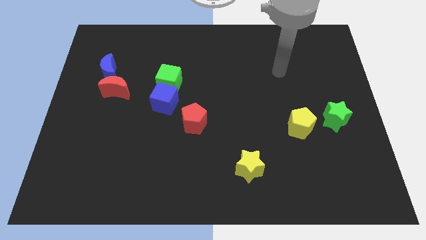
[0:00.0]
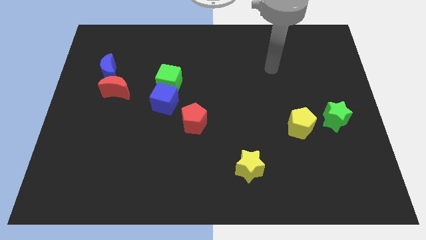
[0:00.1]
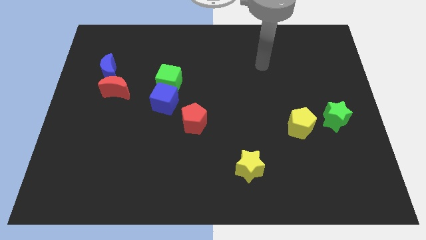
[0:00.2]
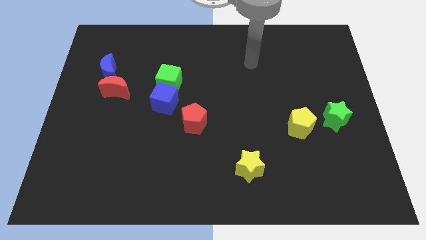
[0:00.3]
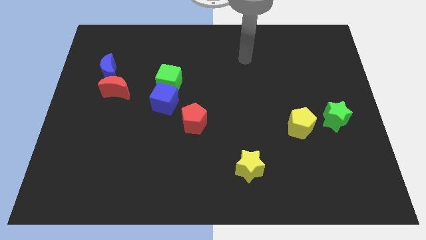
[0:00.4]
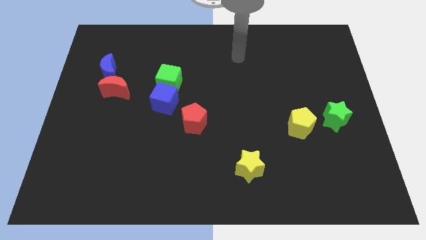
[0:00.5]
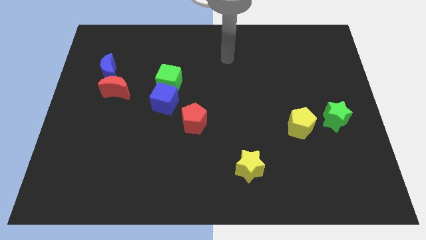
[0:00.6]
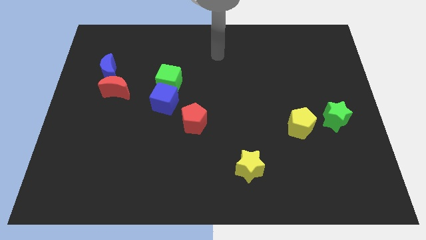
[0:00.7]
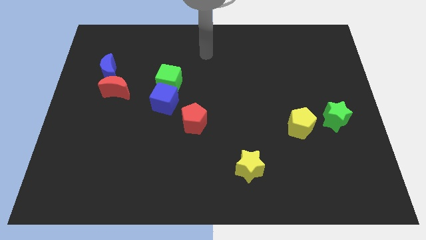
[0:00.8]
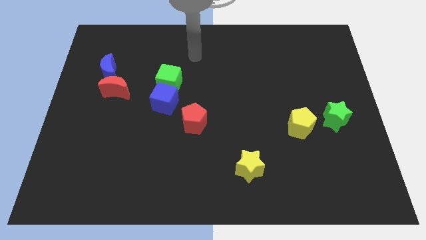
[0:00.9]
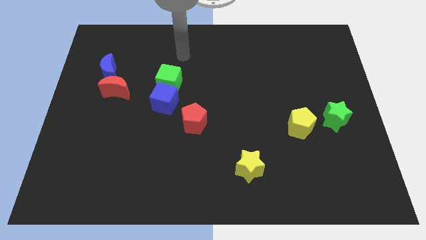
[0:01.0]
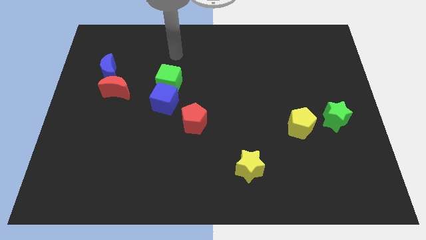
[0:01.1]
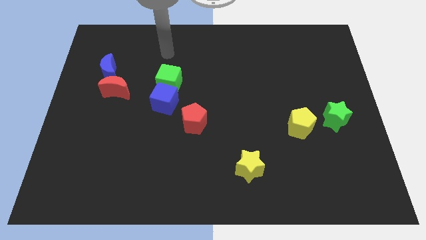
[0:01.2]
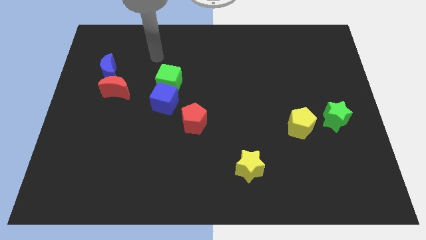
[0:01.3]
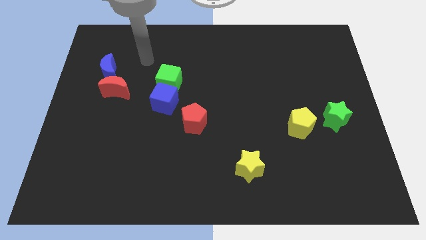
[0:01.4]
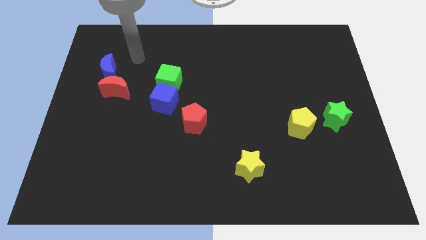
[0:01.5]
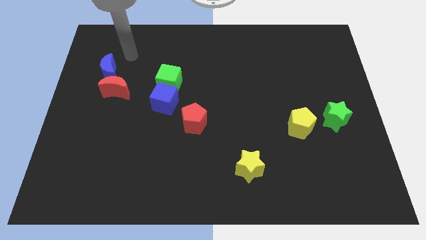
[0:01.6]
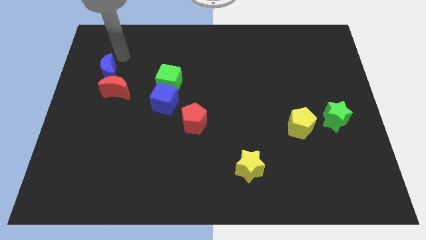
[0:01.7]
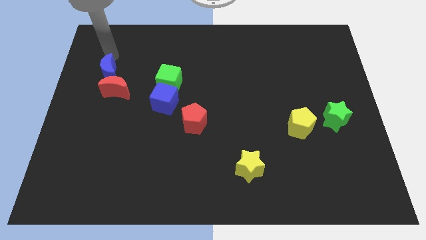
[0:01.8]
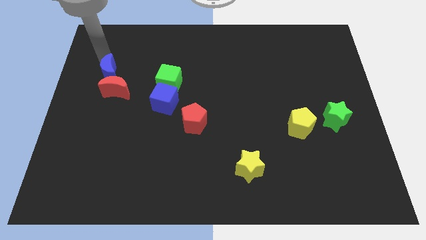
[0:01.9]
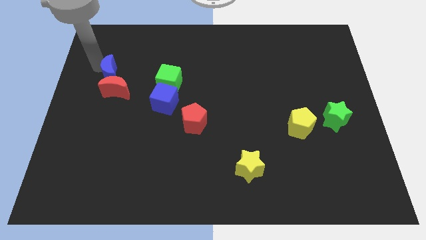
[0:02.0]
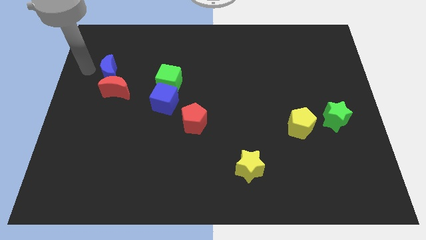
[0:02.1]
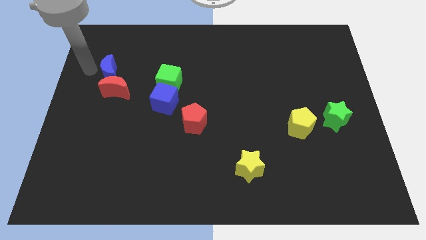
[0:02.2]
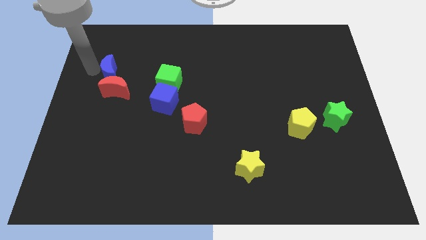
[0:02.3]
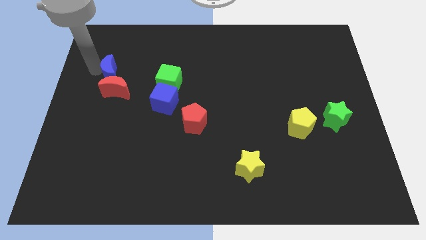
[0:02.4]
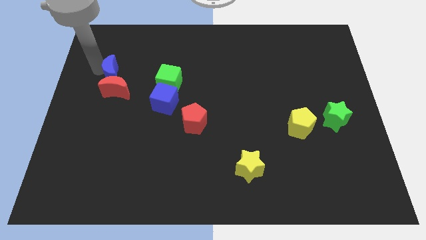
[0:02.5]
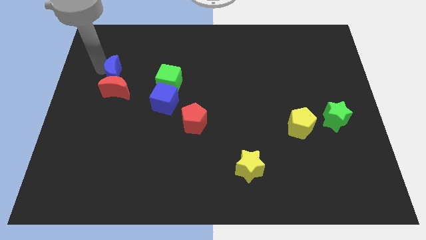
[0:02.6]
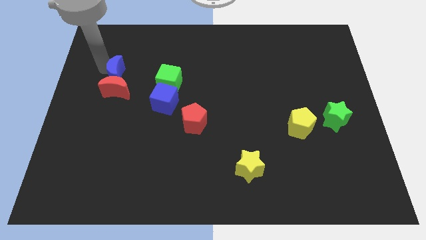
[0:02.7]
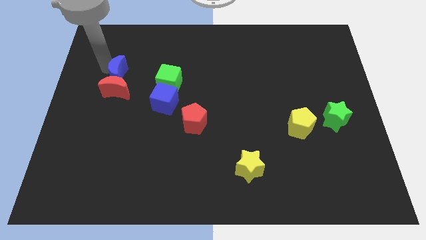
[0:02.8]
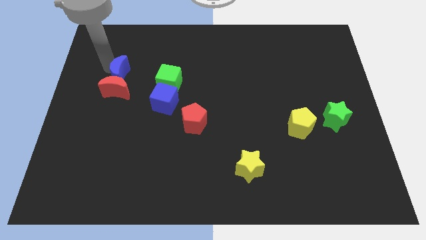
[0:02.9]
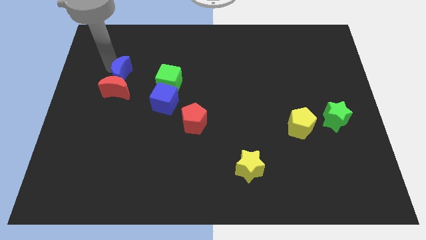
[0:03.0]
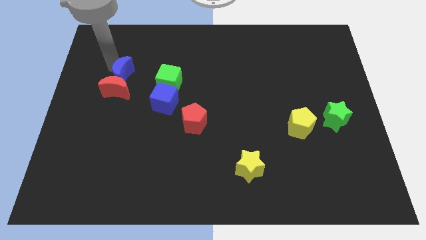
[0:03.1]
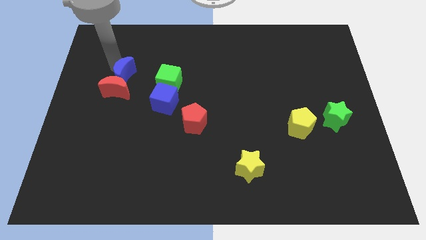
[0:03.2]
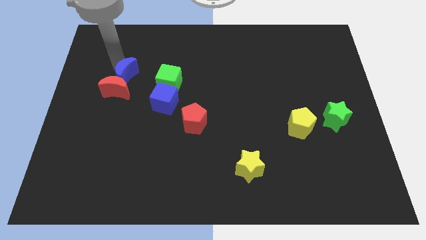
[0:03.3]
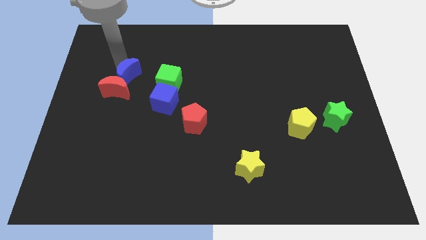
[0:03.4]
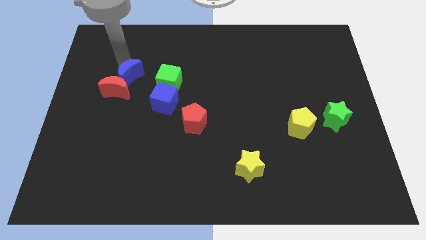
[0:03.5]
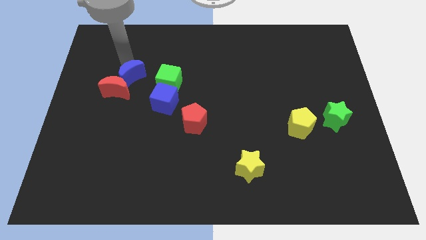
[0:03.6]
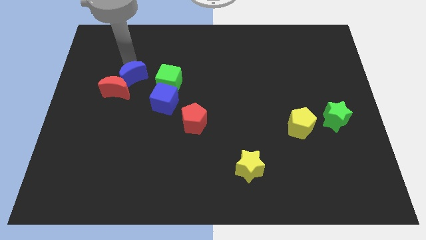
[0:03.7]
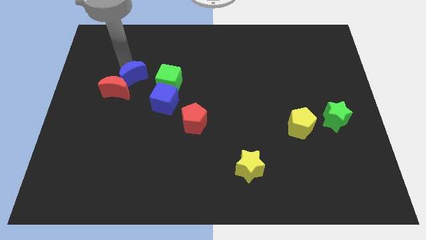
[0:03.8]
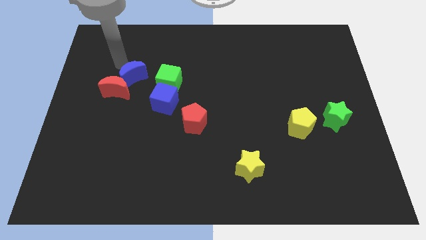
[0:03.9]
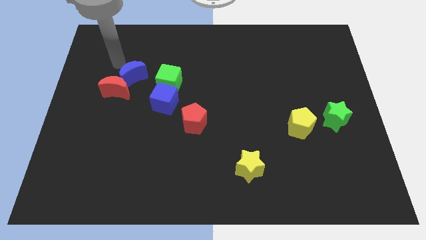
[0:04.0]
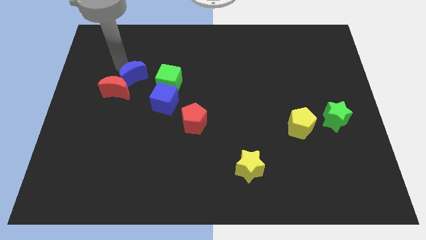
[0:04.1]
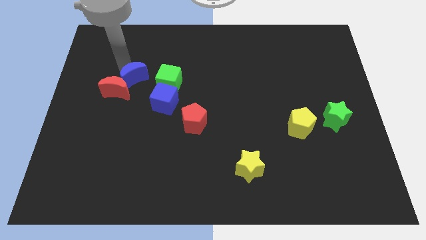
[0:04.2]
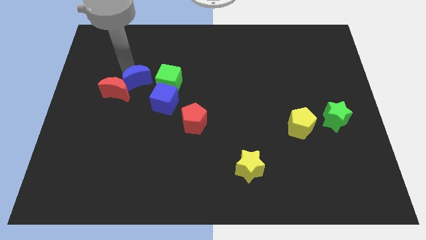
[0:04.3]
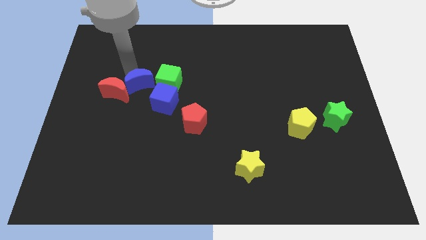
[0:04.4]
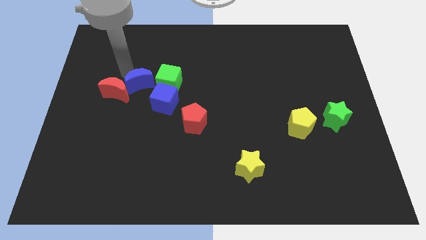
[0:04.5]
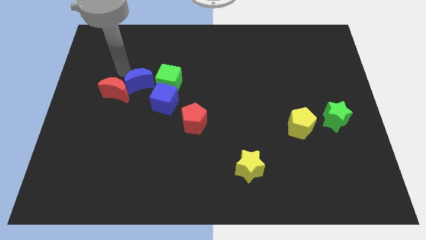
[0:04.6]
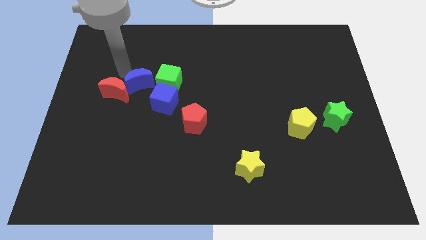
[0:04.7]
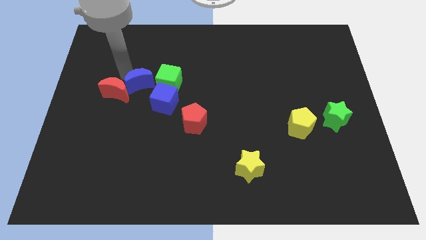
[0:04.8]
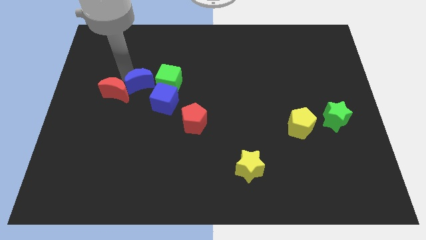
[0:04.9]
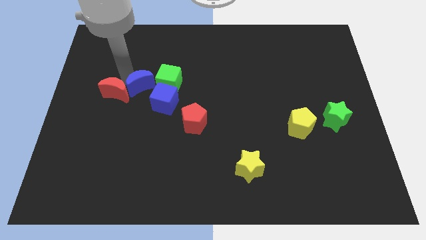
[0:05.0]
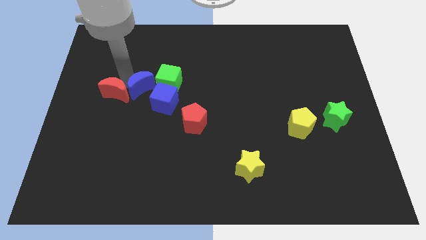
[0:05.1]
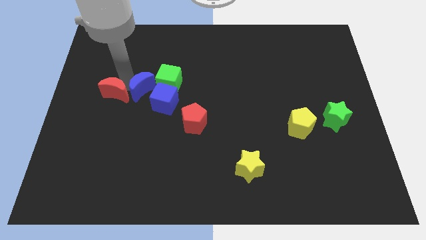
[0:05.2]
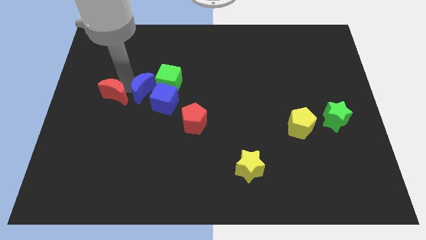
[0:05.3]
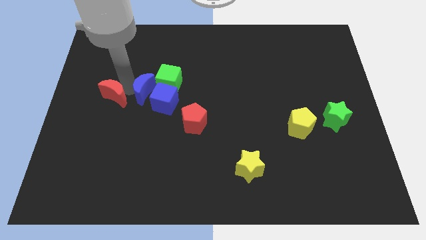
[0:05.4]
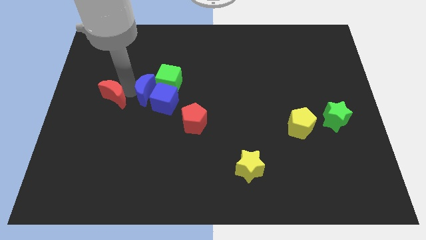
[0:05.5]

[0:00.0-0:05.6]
push the blue moon to the blue cube

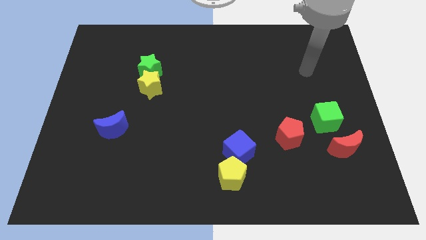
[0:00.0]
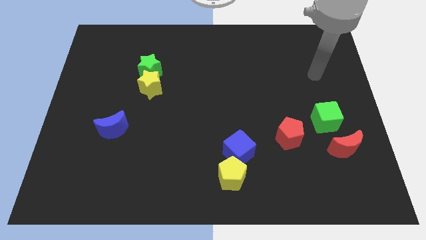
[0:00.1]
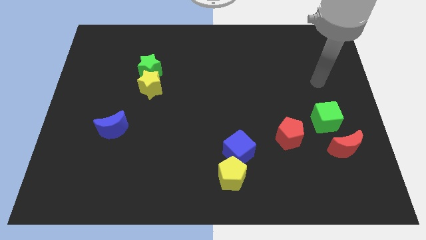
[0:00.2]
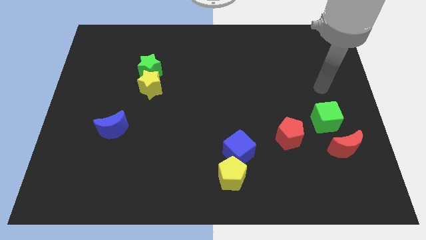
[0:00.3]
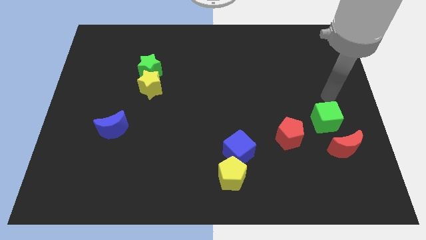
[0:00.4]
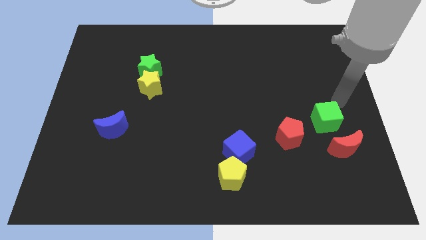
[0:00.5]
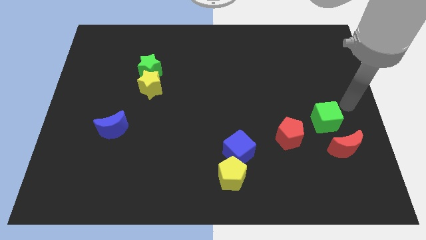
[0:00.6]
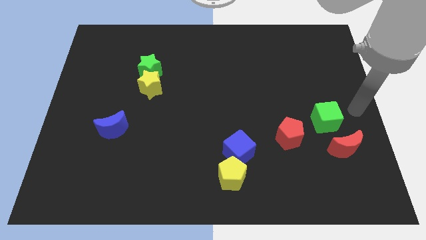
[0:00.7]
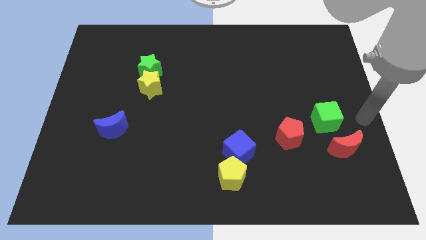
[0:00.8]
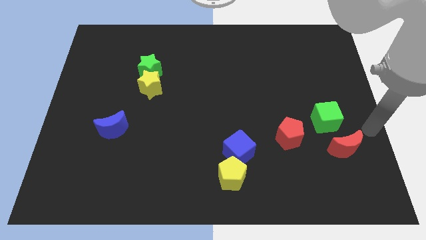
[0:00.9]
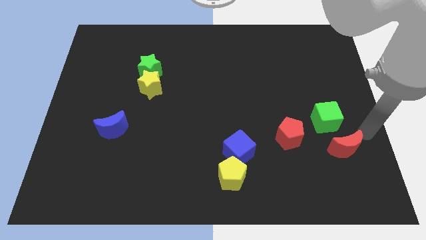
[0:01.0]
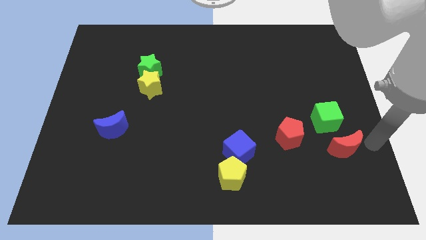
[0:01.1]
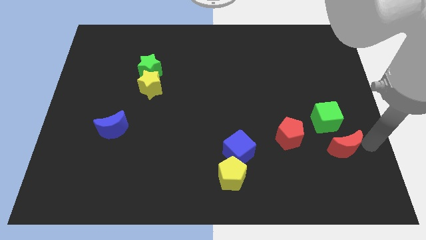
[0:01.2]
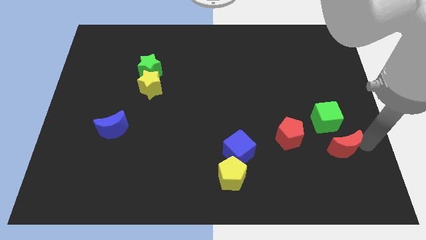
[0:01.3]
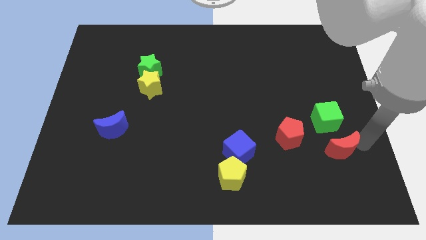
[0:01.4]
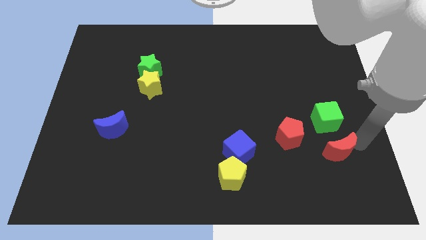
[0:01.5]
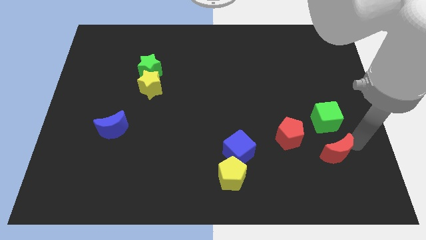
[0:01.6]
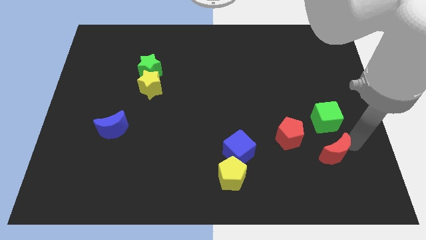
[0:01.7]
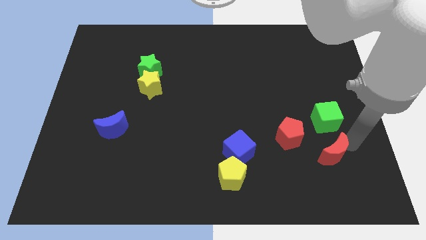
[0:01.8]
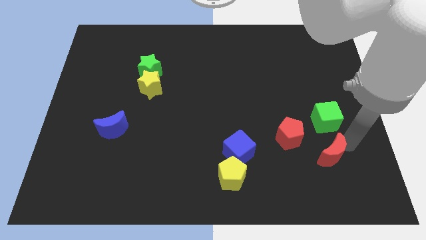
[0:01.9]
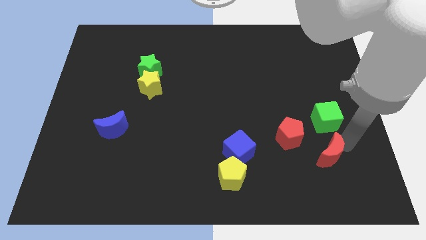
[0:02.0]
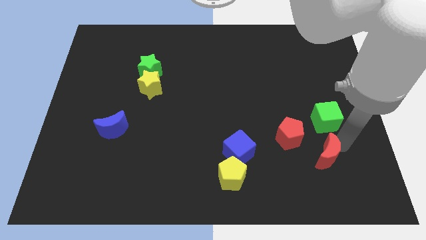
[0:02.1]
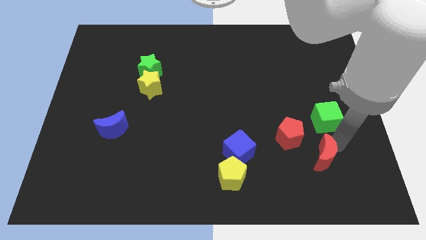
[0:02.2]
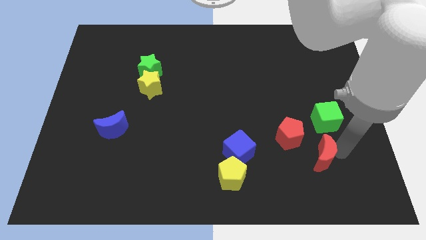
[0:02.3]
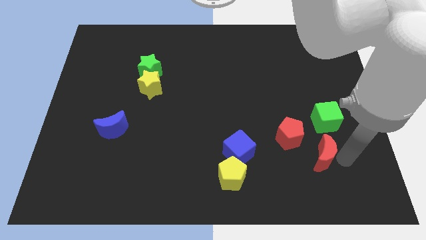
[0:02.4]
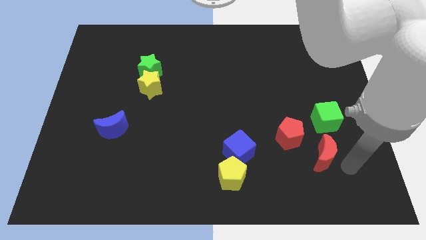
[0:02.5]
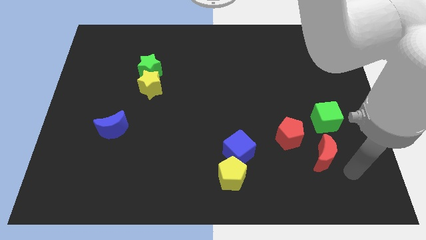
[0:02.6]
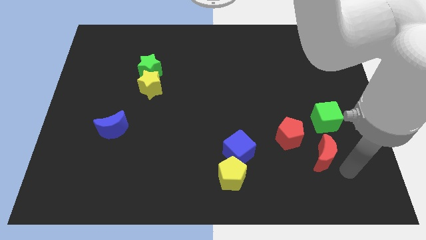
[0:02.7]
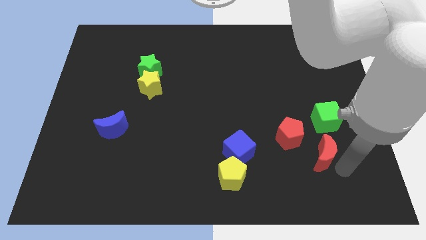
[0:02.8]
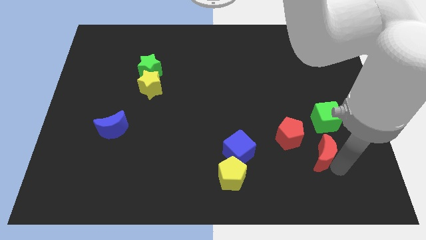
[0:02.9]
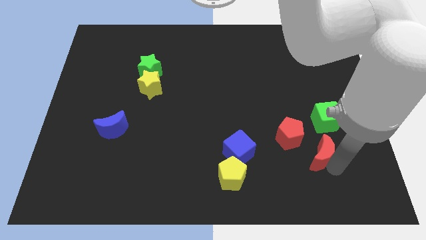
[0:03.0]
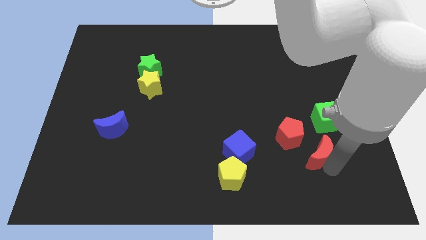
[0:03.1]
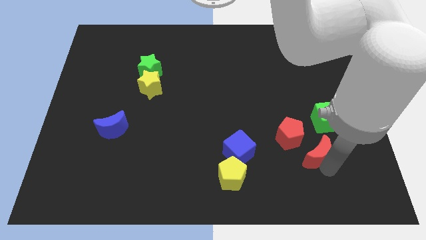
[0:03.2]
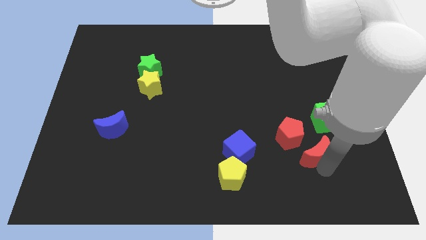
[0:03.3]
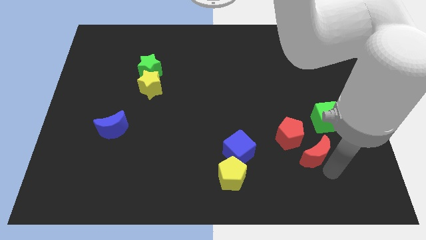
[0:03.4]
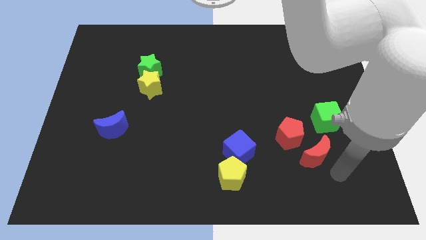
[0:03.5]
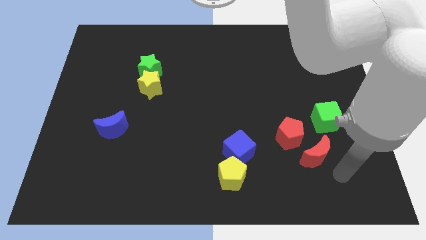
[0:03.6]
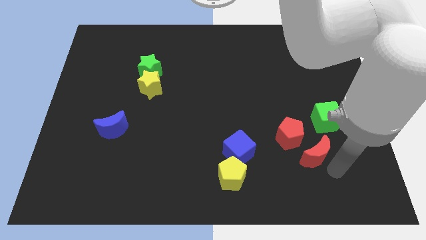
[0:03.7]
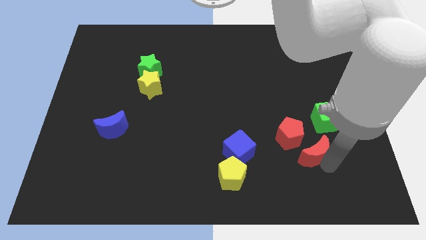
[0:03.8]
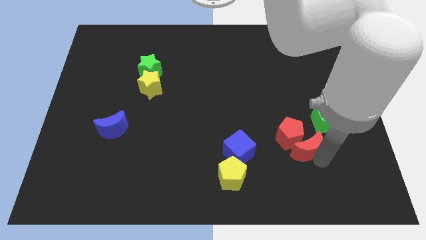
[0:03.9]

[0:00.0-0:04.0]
slide the red moon next to the red pentagon
